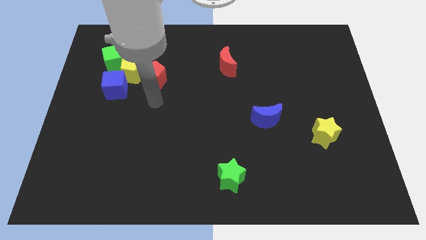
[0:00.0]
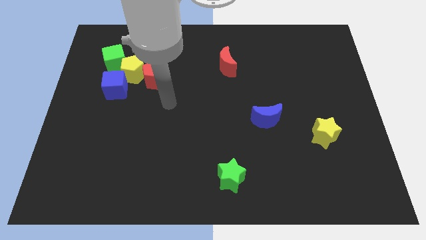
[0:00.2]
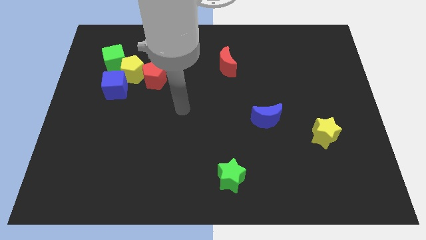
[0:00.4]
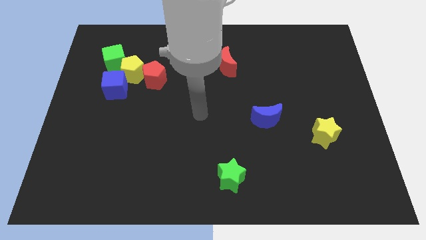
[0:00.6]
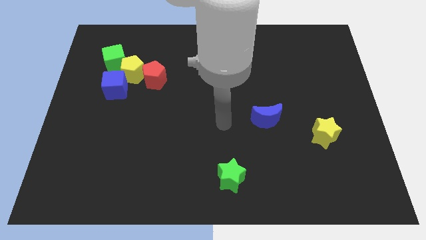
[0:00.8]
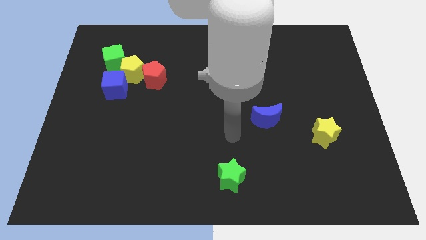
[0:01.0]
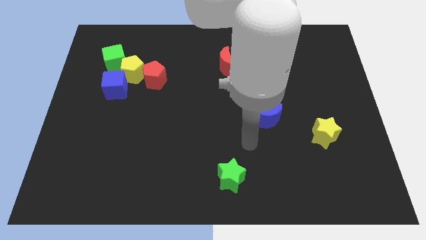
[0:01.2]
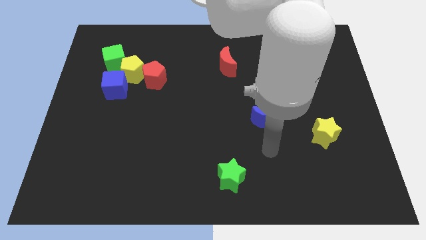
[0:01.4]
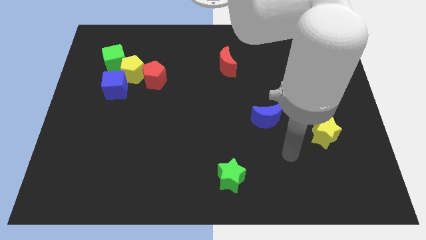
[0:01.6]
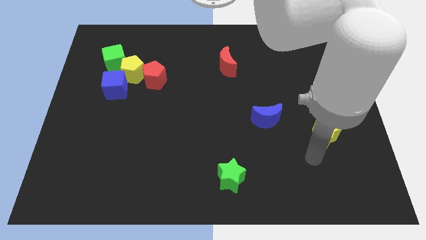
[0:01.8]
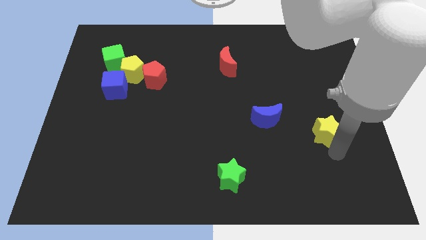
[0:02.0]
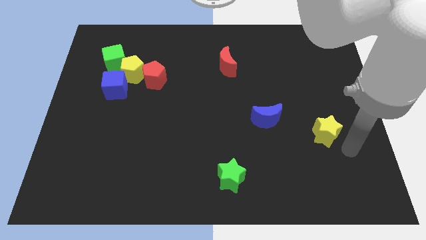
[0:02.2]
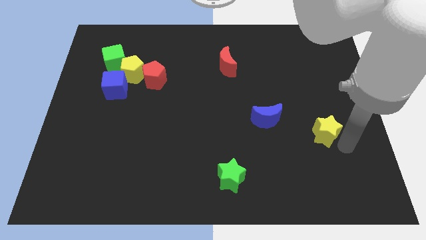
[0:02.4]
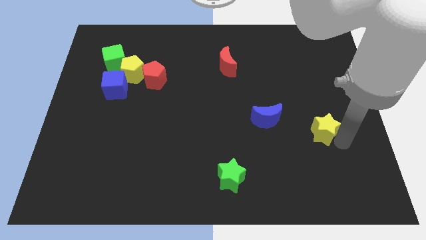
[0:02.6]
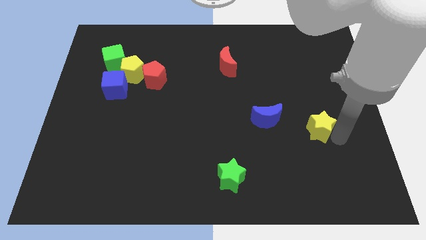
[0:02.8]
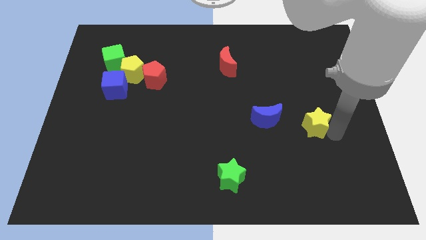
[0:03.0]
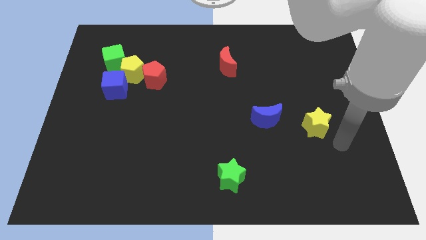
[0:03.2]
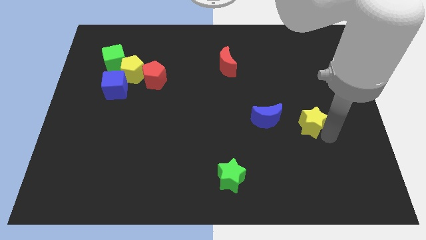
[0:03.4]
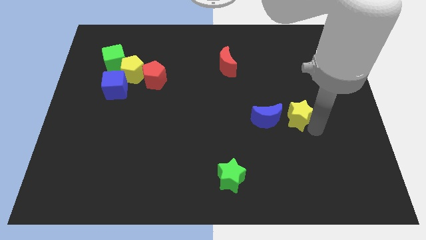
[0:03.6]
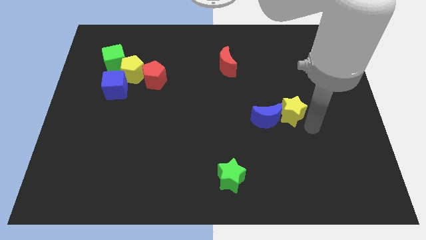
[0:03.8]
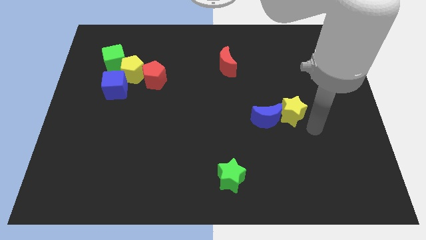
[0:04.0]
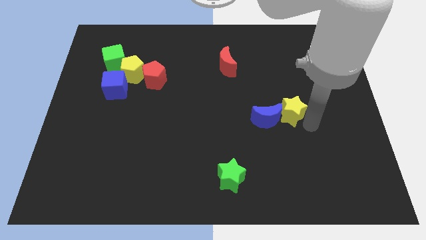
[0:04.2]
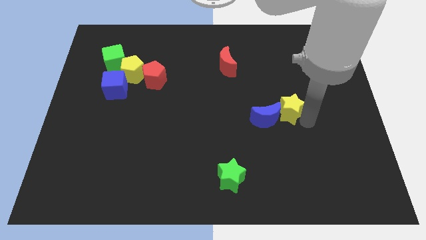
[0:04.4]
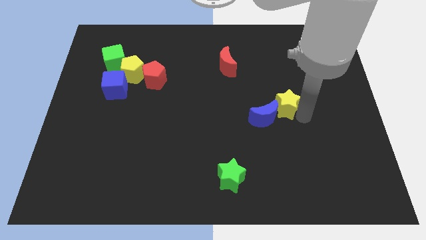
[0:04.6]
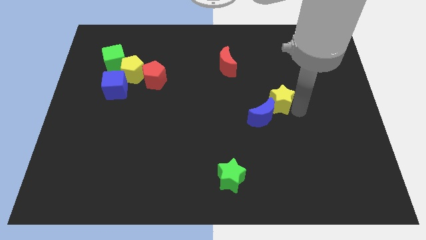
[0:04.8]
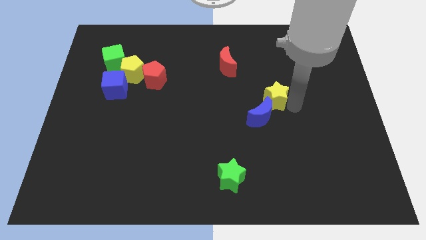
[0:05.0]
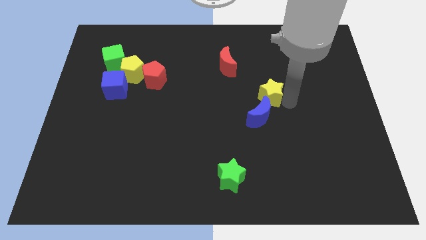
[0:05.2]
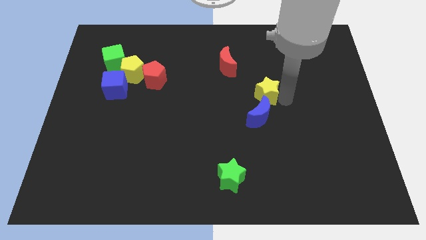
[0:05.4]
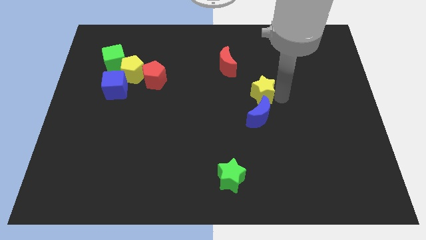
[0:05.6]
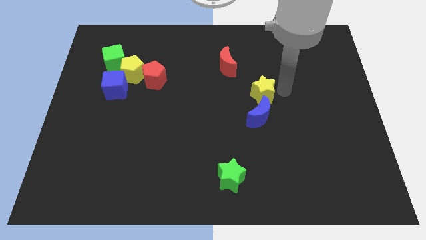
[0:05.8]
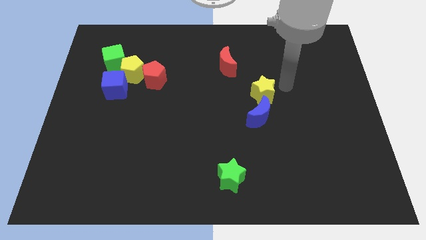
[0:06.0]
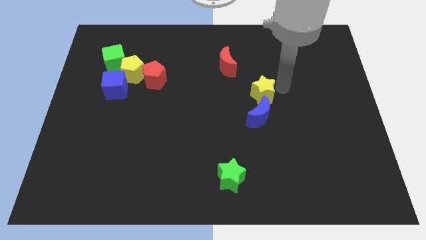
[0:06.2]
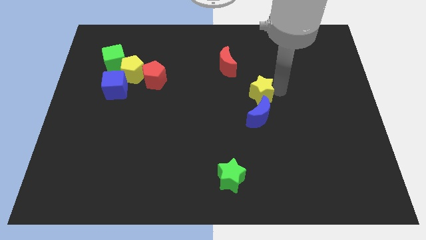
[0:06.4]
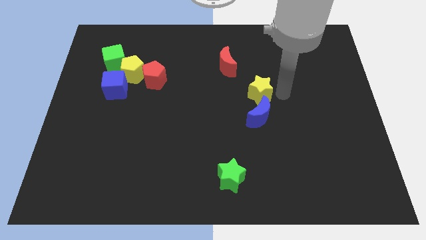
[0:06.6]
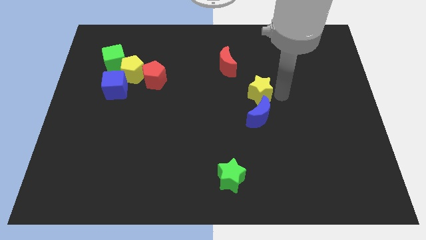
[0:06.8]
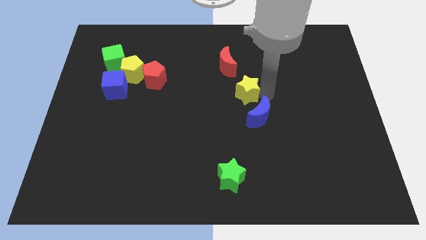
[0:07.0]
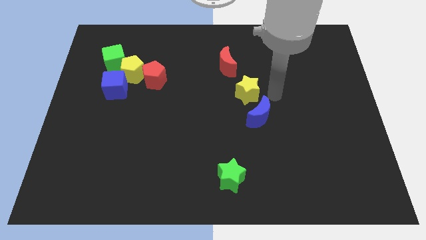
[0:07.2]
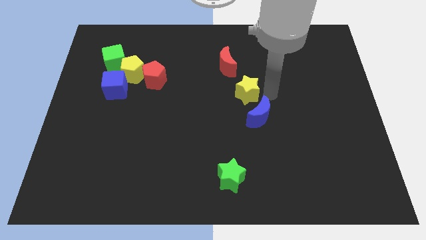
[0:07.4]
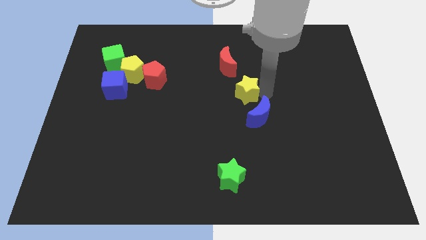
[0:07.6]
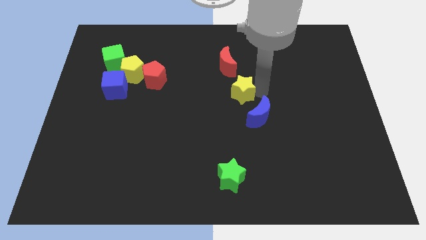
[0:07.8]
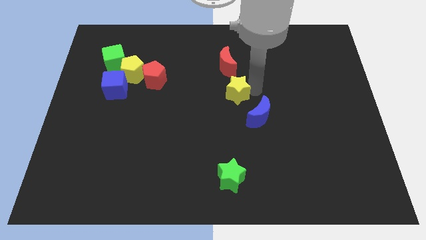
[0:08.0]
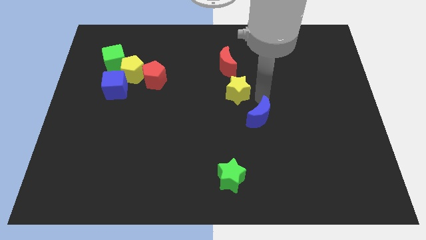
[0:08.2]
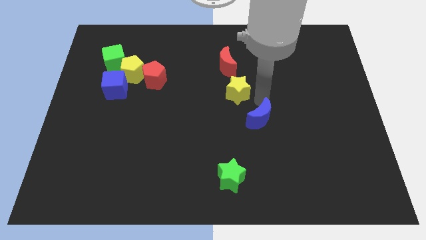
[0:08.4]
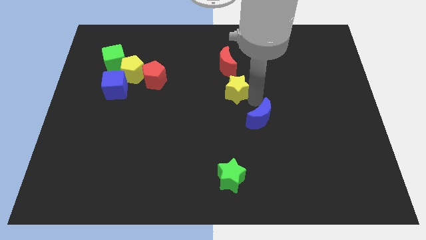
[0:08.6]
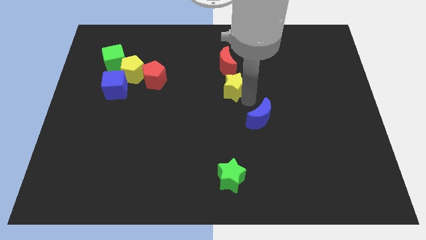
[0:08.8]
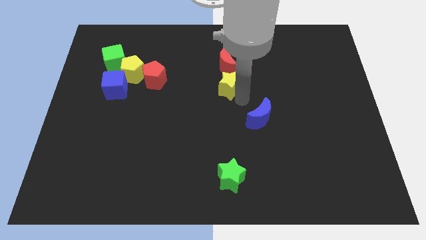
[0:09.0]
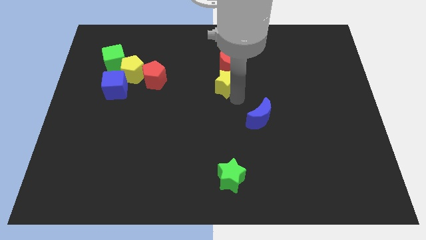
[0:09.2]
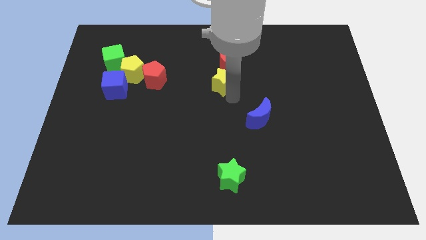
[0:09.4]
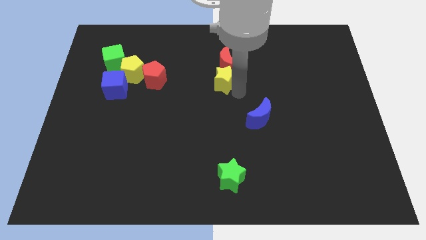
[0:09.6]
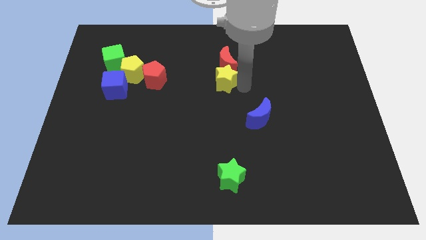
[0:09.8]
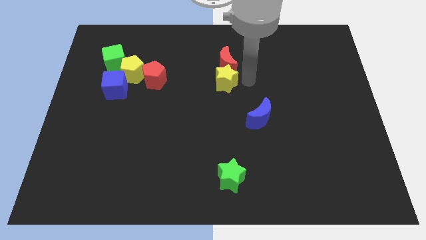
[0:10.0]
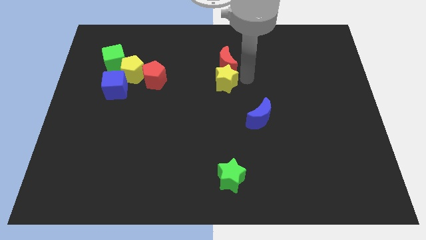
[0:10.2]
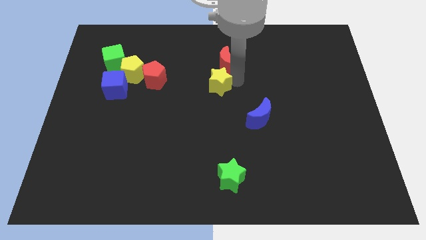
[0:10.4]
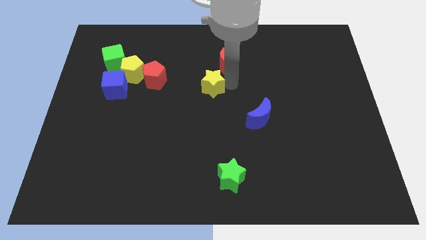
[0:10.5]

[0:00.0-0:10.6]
slide the yellow star to the right of the red pentagon

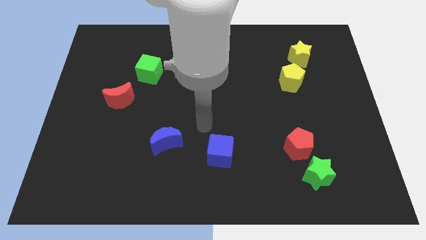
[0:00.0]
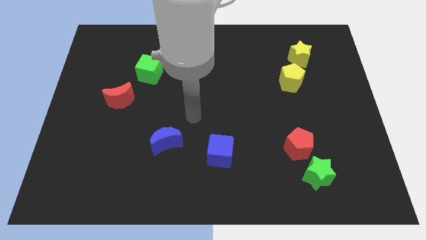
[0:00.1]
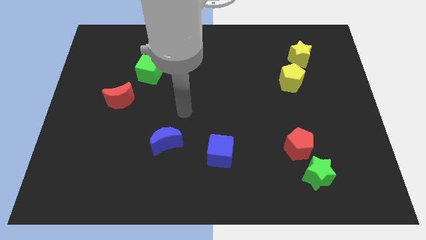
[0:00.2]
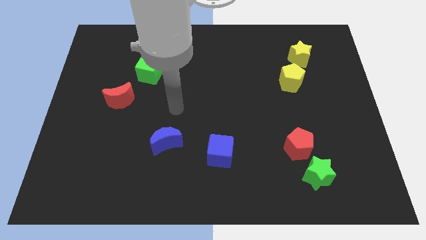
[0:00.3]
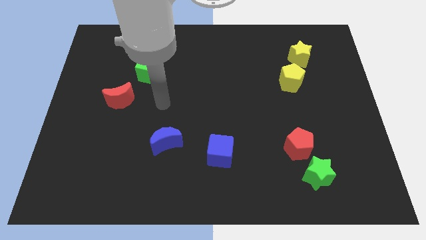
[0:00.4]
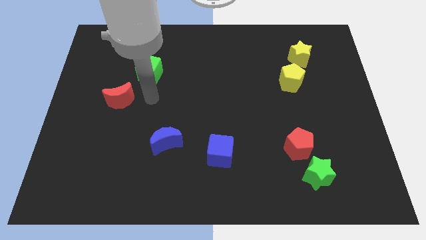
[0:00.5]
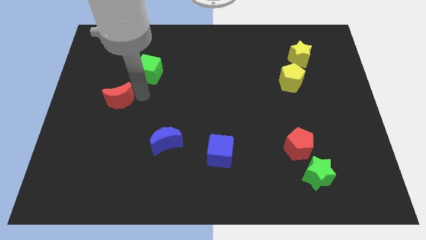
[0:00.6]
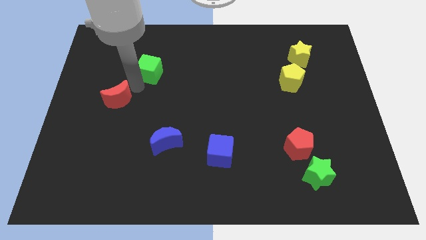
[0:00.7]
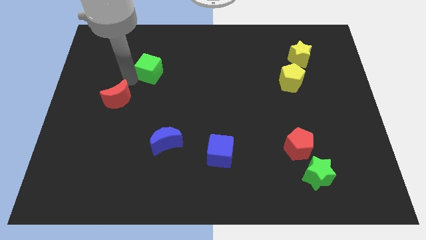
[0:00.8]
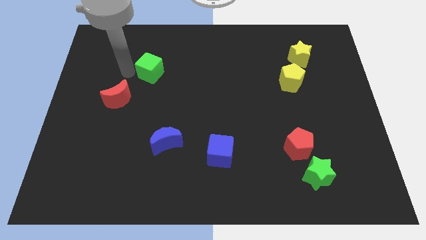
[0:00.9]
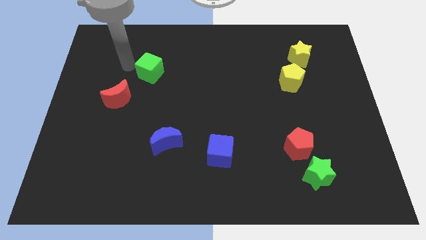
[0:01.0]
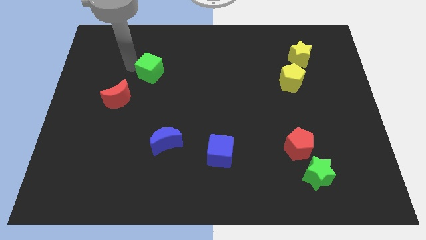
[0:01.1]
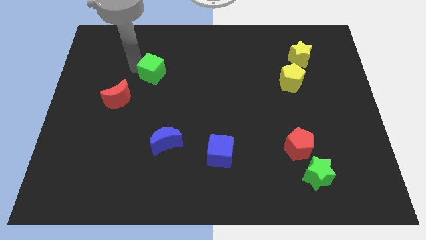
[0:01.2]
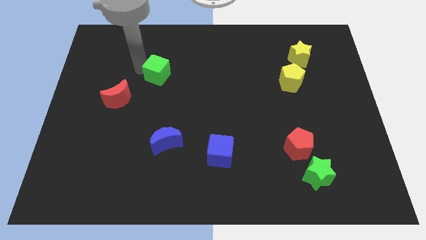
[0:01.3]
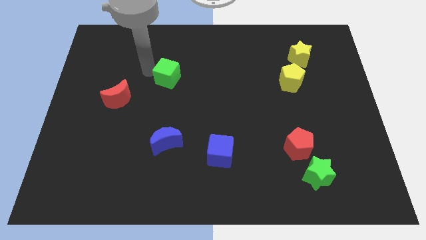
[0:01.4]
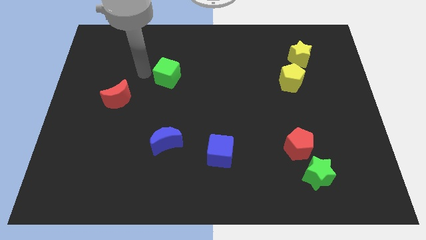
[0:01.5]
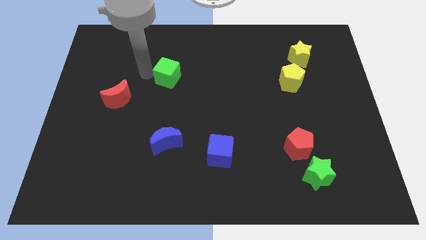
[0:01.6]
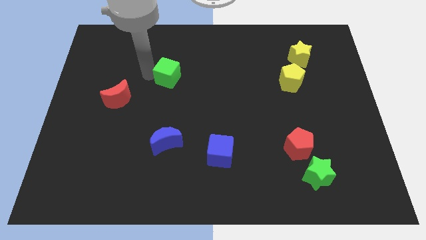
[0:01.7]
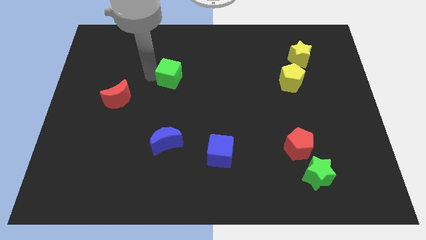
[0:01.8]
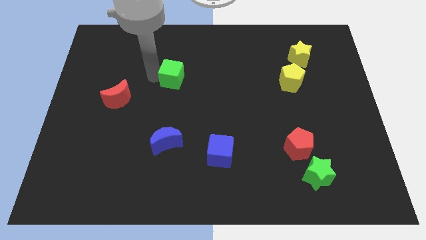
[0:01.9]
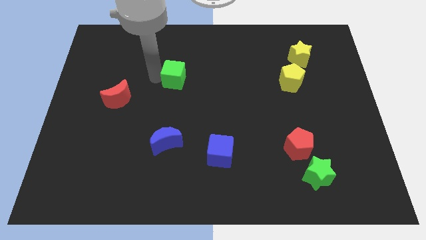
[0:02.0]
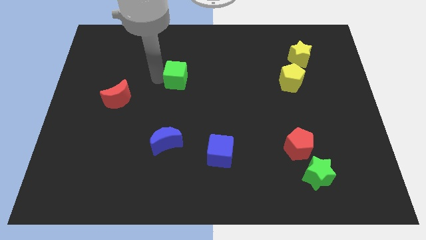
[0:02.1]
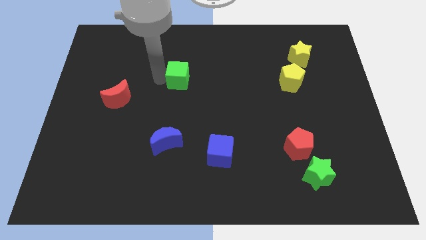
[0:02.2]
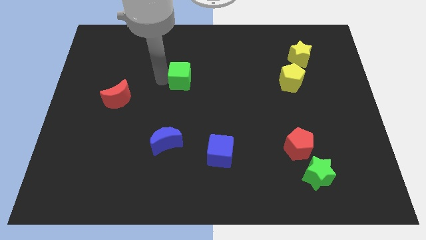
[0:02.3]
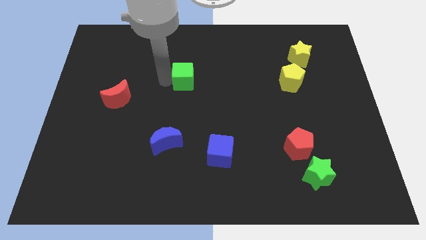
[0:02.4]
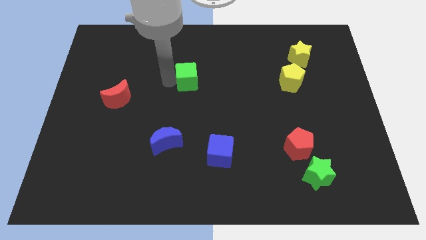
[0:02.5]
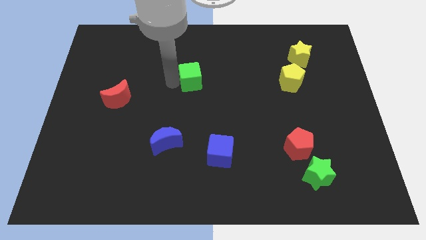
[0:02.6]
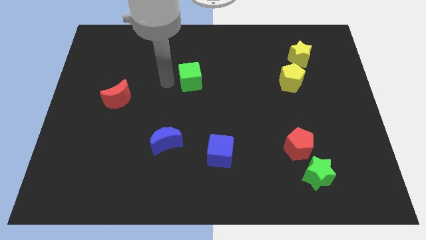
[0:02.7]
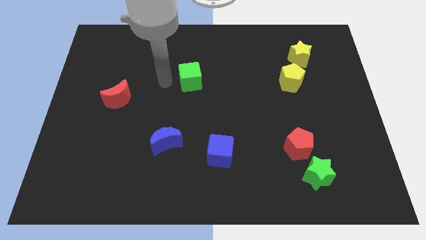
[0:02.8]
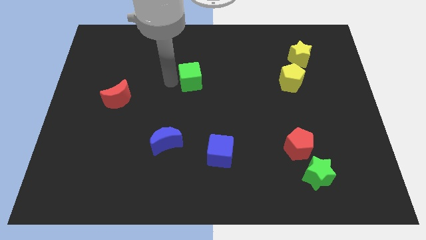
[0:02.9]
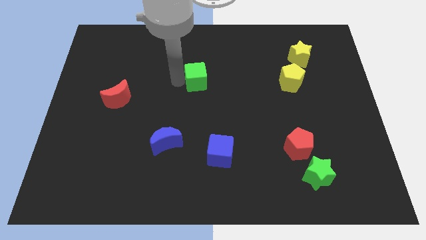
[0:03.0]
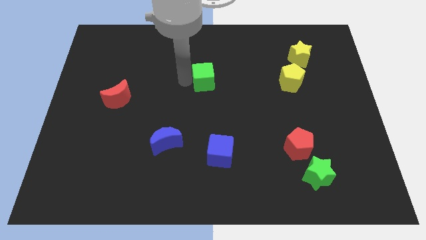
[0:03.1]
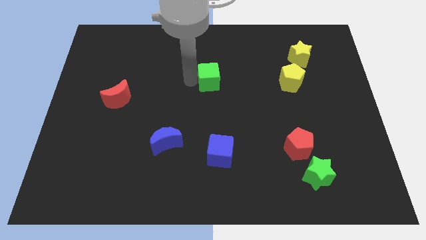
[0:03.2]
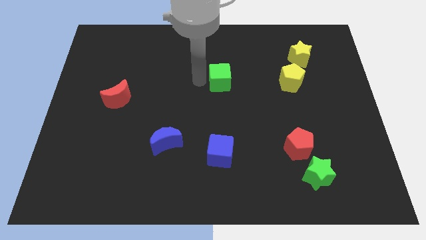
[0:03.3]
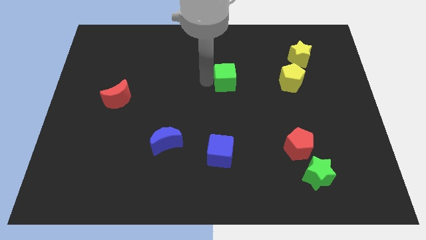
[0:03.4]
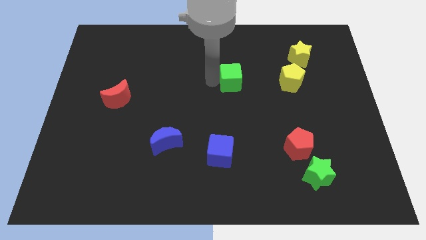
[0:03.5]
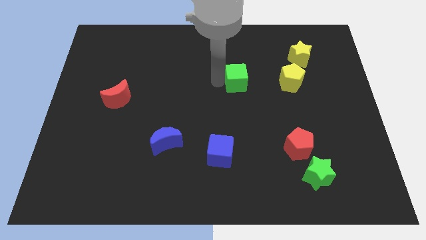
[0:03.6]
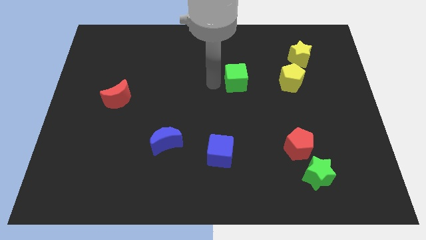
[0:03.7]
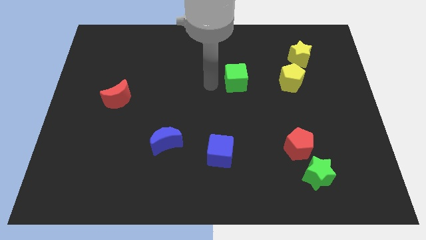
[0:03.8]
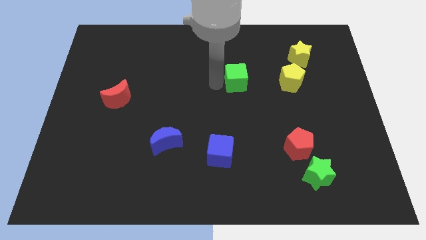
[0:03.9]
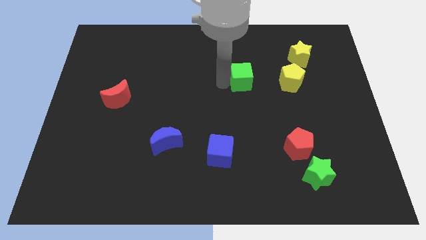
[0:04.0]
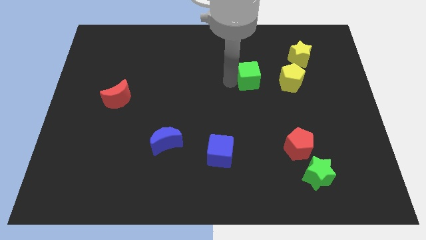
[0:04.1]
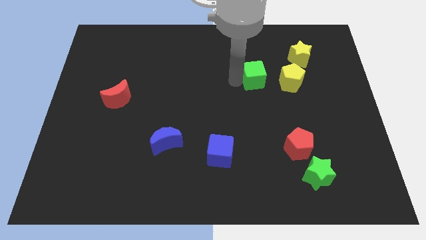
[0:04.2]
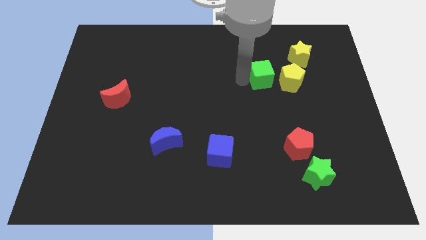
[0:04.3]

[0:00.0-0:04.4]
slide the green cube to the bottom left side of the yellow star
